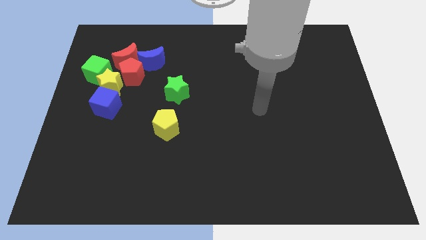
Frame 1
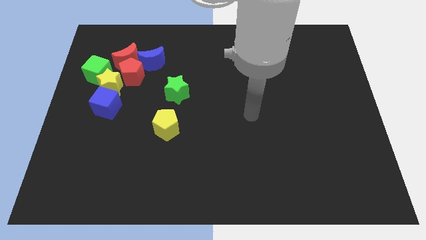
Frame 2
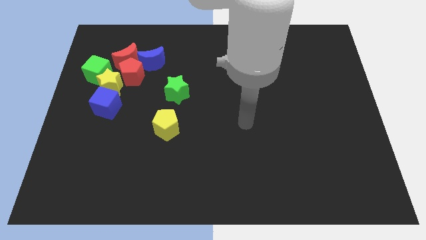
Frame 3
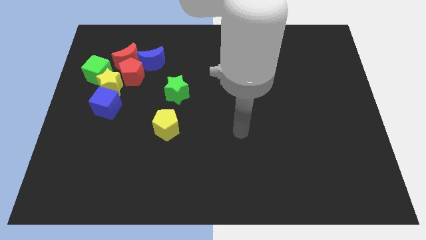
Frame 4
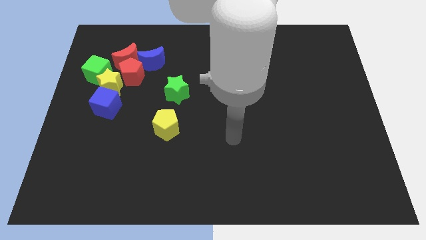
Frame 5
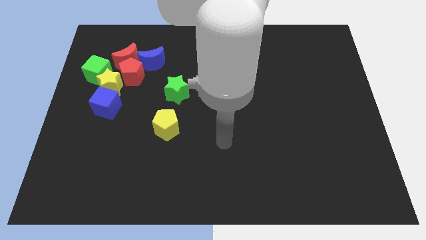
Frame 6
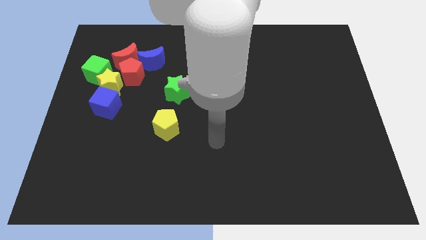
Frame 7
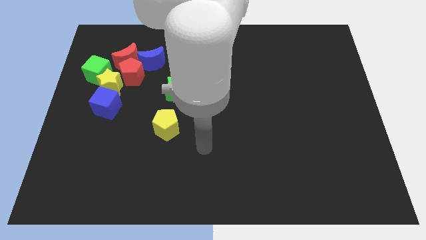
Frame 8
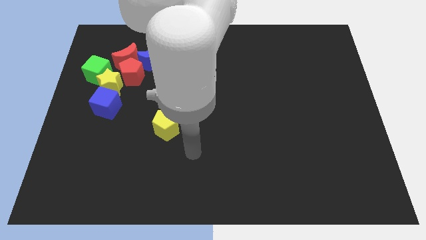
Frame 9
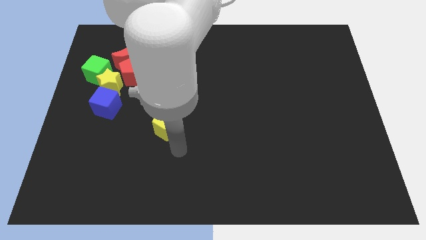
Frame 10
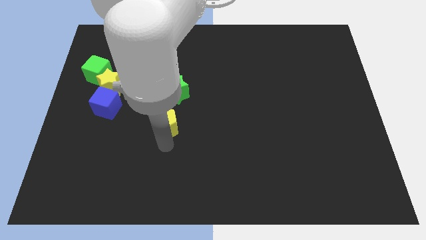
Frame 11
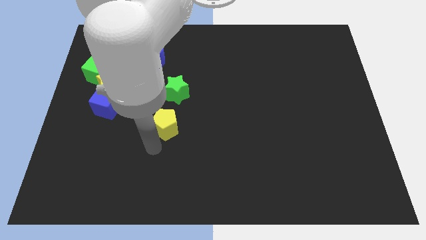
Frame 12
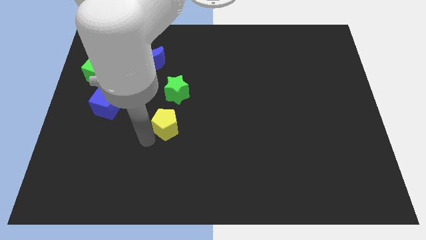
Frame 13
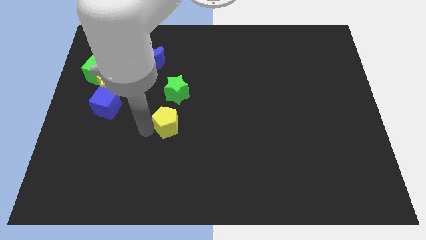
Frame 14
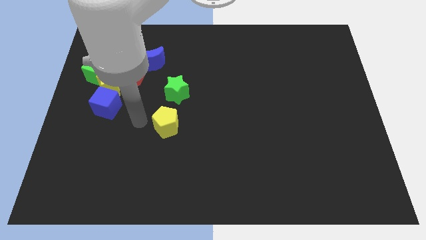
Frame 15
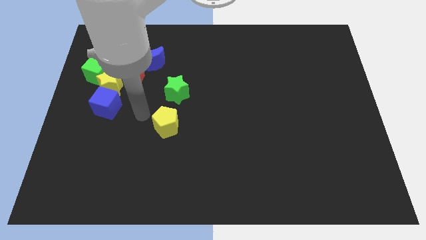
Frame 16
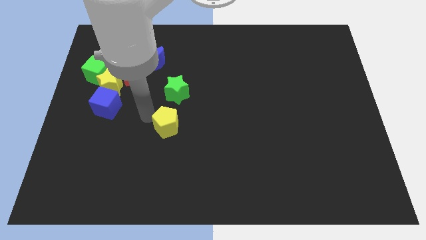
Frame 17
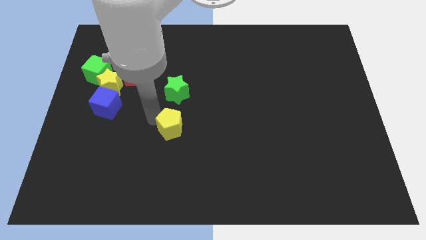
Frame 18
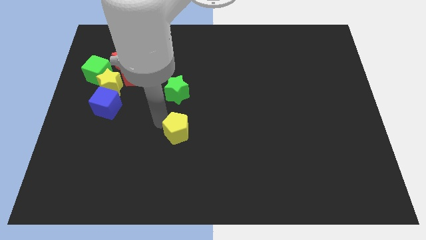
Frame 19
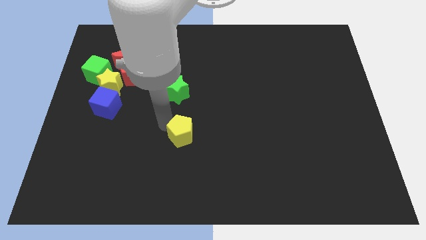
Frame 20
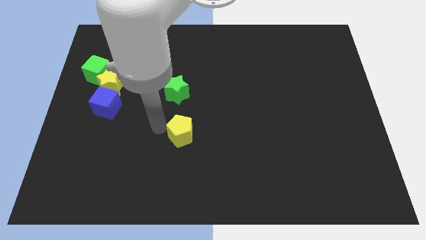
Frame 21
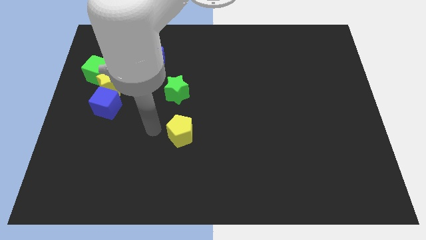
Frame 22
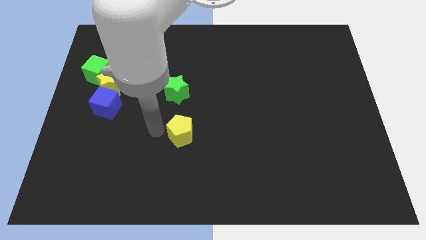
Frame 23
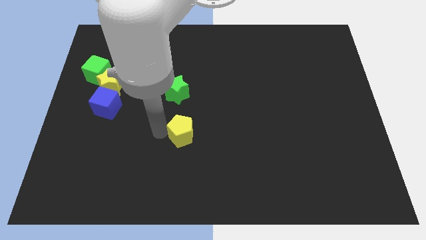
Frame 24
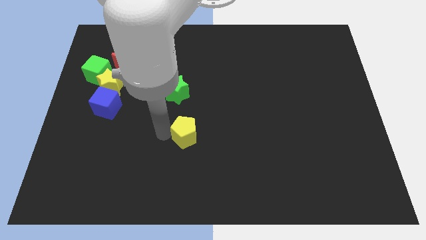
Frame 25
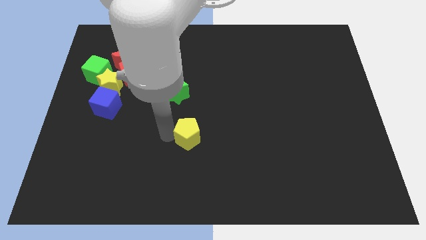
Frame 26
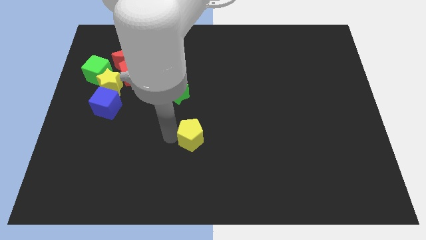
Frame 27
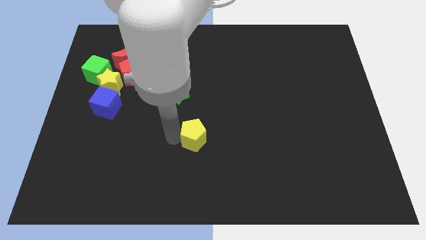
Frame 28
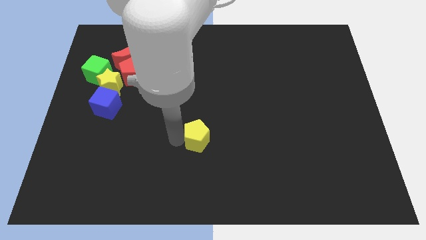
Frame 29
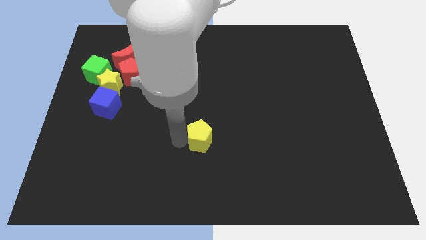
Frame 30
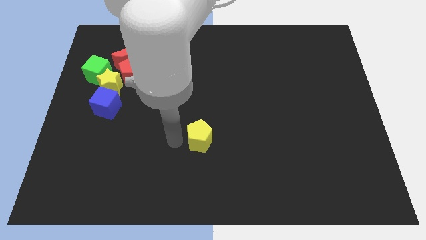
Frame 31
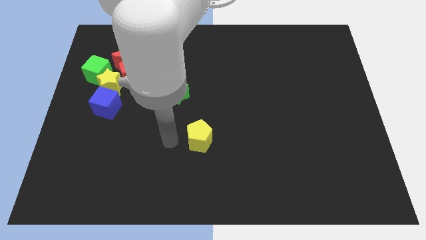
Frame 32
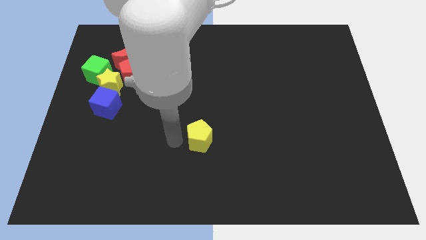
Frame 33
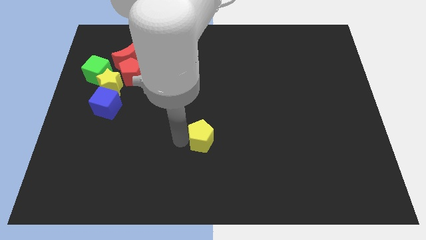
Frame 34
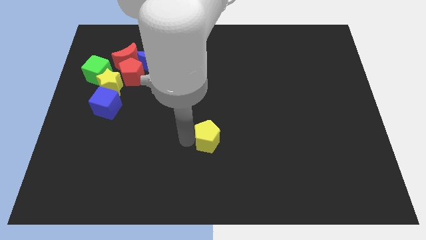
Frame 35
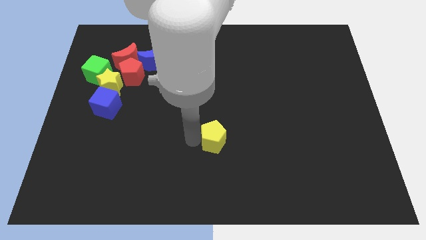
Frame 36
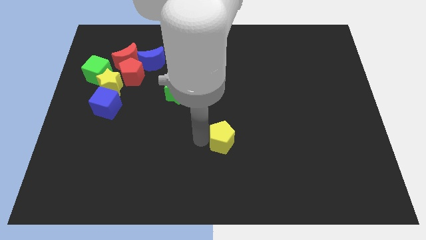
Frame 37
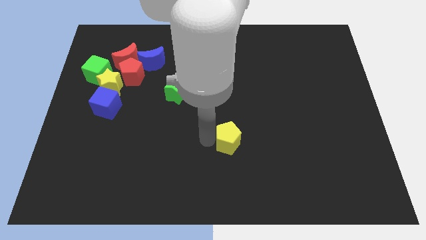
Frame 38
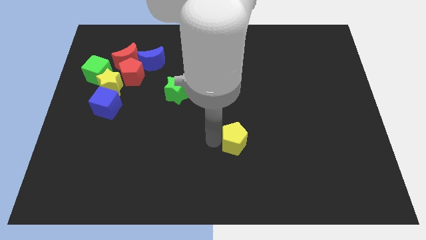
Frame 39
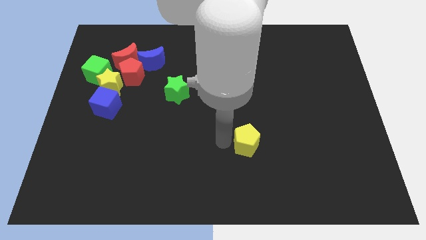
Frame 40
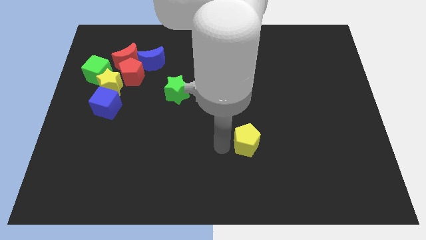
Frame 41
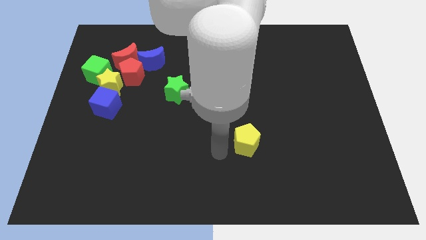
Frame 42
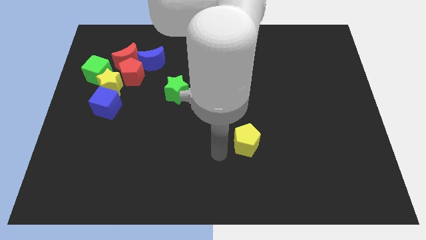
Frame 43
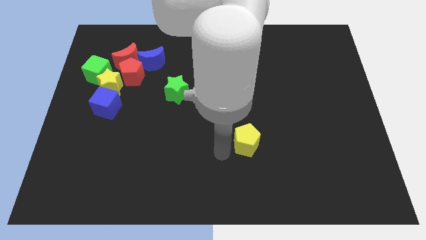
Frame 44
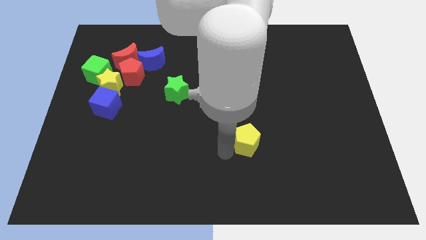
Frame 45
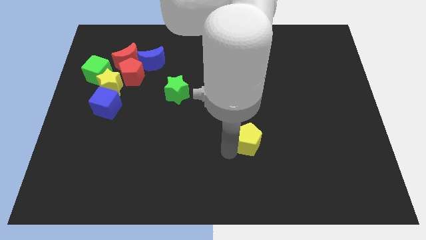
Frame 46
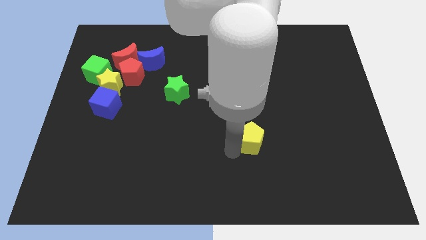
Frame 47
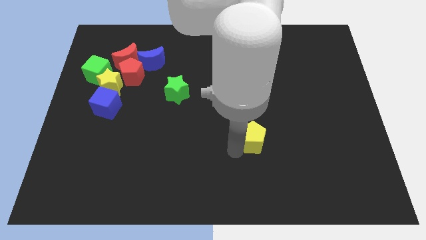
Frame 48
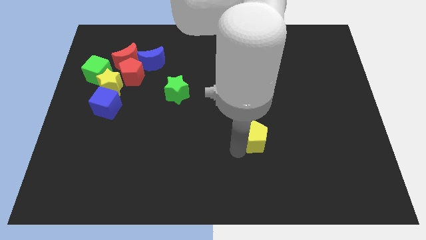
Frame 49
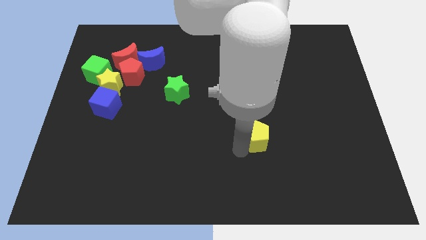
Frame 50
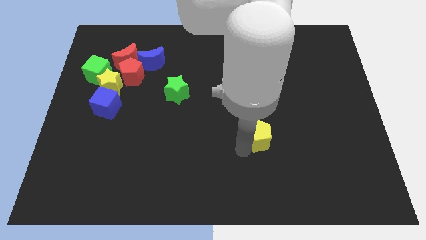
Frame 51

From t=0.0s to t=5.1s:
slide the yellow pentagon to the right

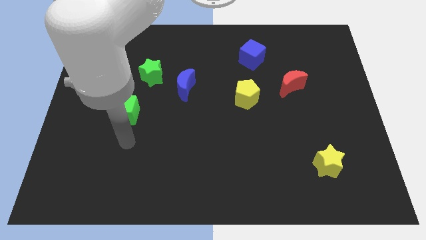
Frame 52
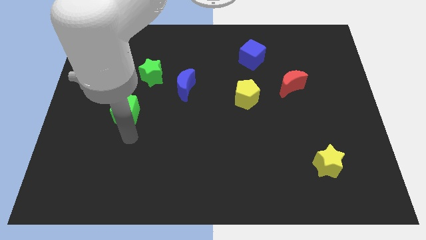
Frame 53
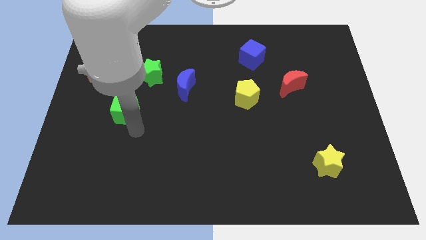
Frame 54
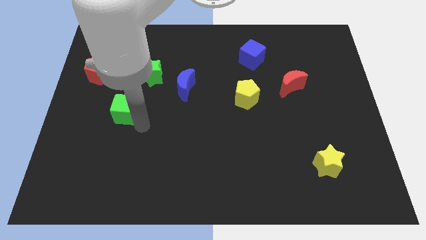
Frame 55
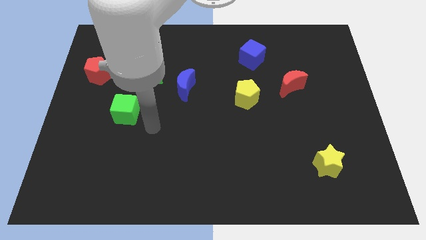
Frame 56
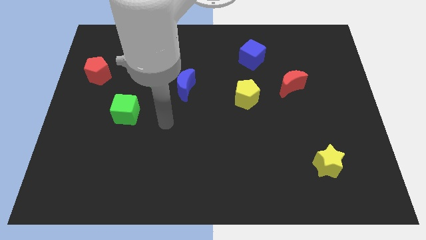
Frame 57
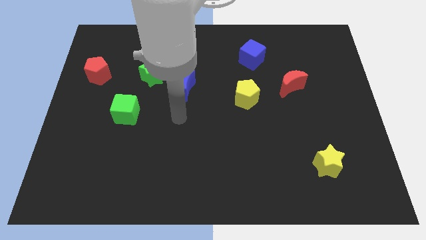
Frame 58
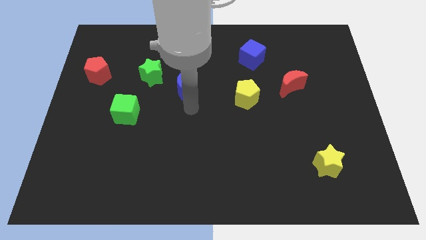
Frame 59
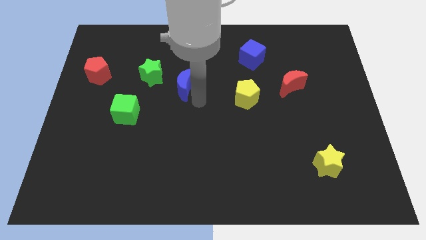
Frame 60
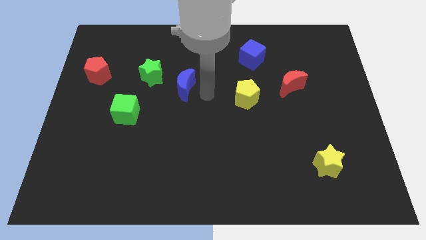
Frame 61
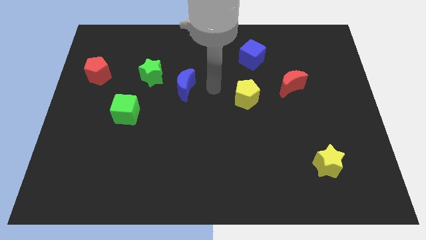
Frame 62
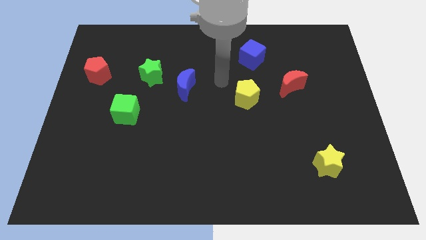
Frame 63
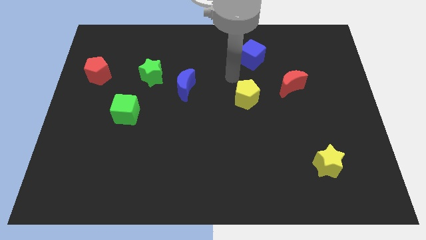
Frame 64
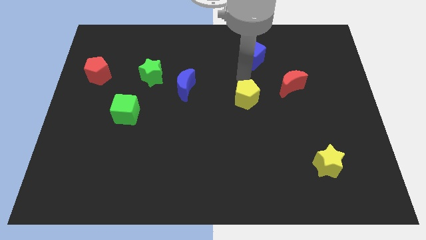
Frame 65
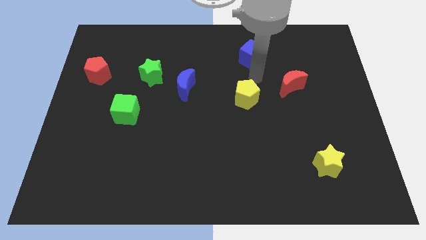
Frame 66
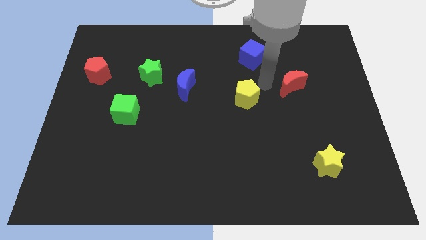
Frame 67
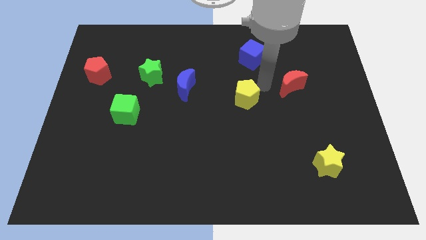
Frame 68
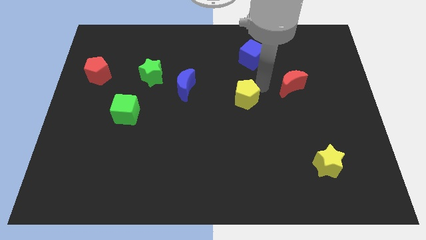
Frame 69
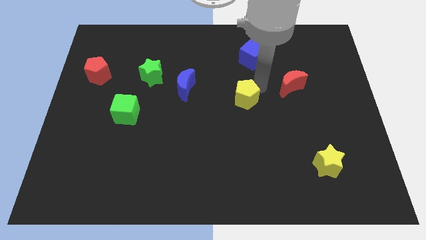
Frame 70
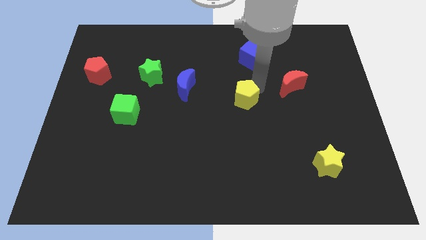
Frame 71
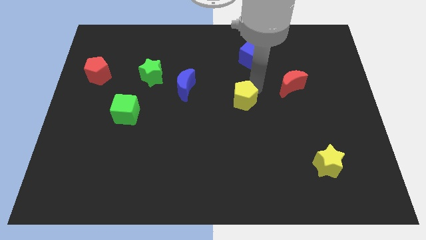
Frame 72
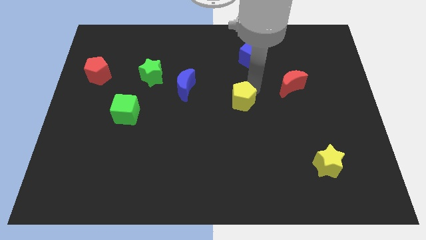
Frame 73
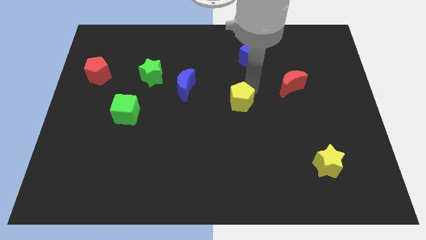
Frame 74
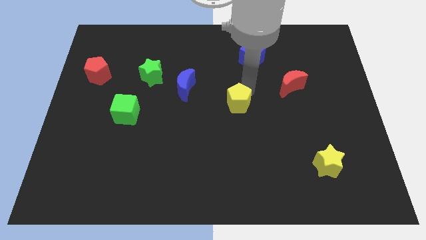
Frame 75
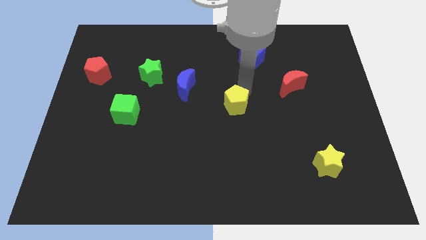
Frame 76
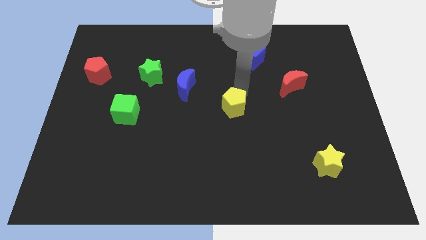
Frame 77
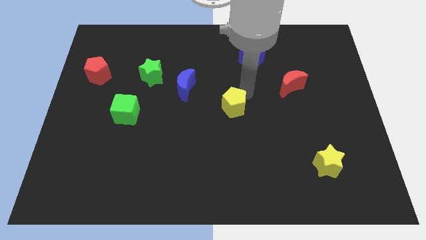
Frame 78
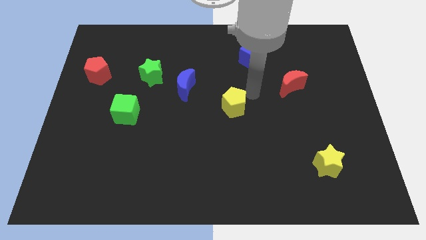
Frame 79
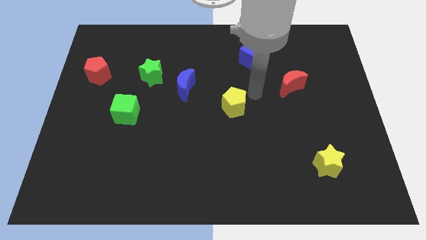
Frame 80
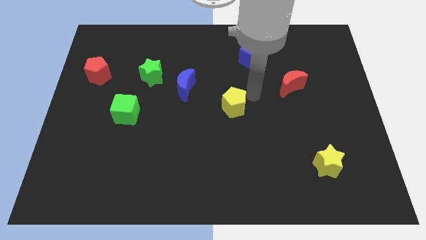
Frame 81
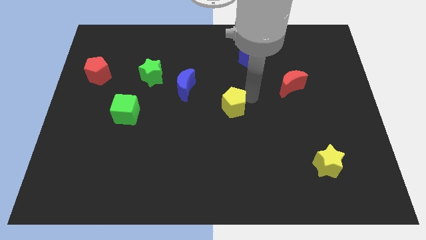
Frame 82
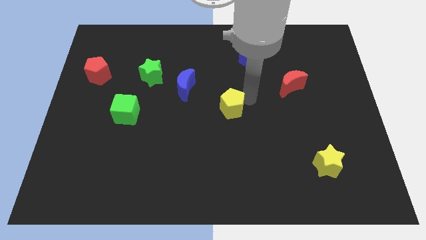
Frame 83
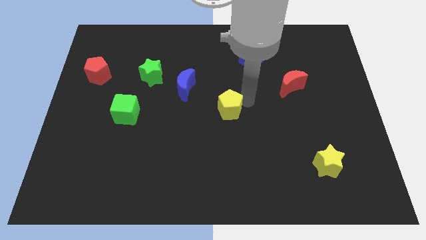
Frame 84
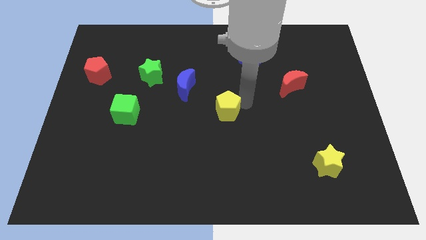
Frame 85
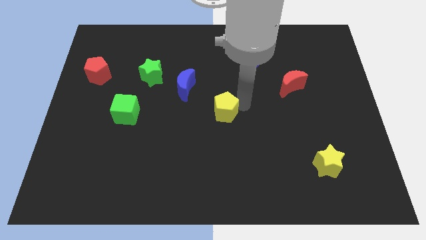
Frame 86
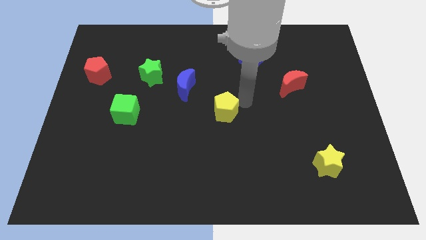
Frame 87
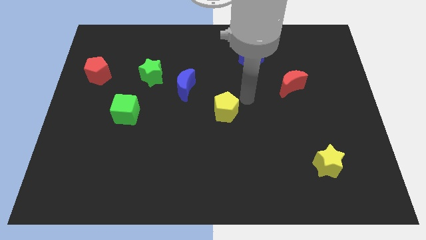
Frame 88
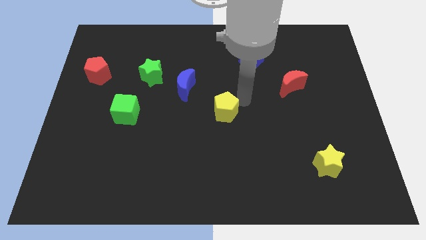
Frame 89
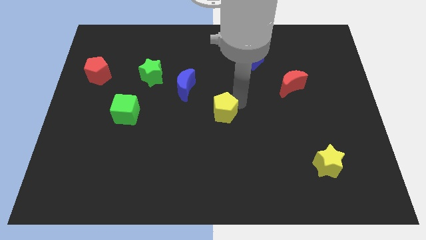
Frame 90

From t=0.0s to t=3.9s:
slide the yellow pentagon somewhat diagonally down and to the left
